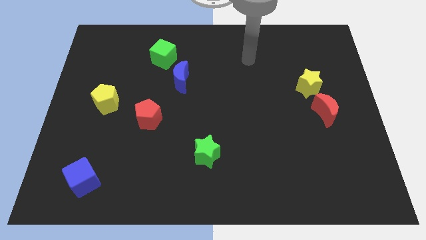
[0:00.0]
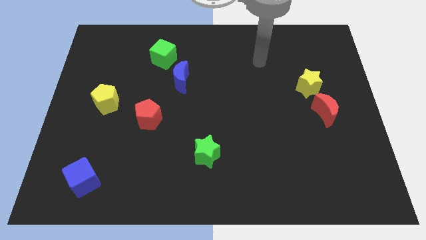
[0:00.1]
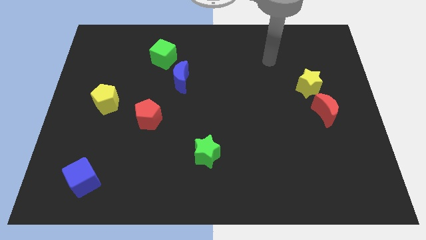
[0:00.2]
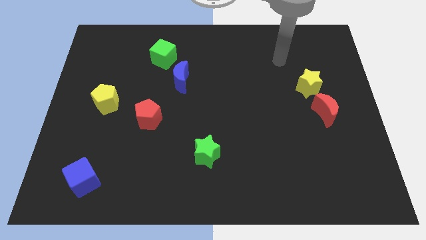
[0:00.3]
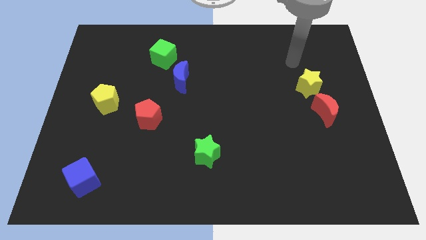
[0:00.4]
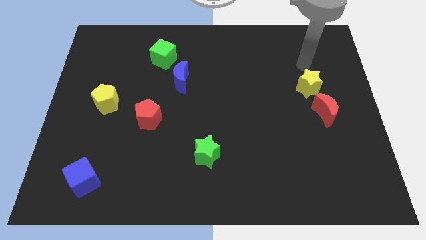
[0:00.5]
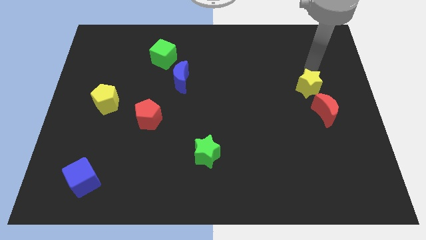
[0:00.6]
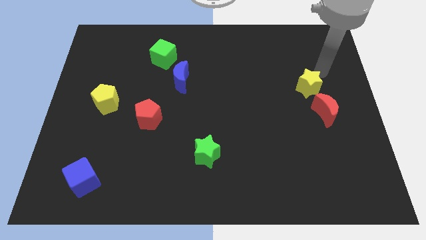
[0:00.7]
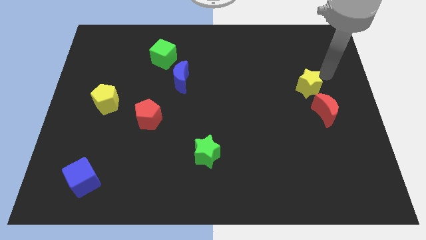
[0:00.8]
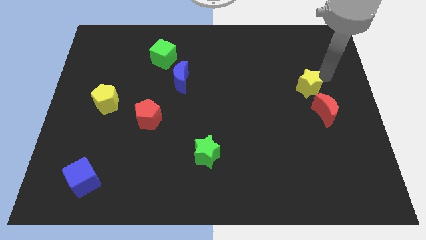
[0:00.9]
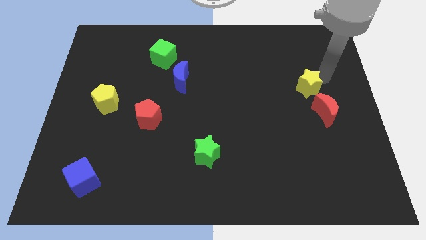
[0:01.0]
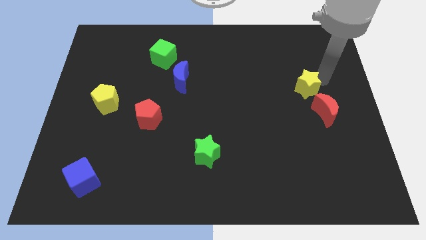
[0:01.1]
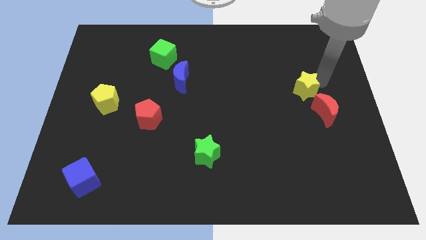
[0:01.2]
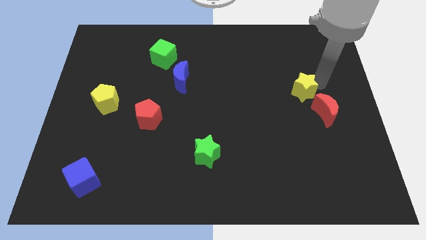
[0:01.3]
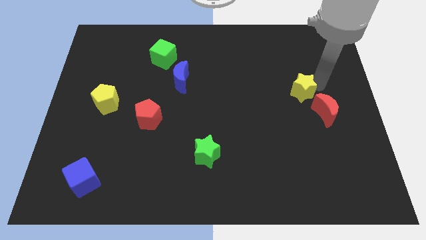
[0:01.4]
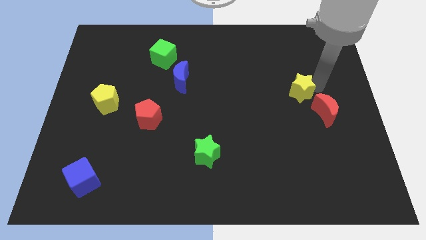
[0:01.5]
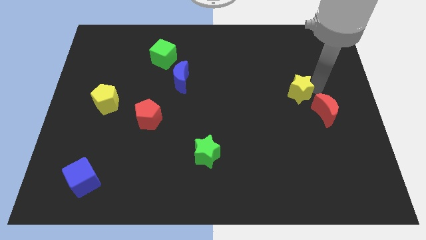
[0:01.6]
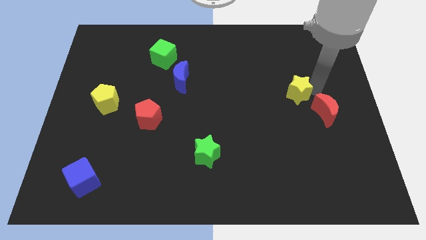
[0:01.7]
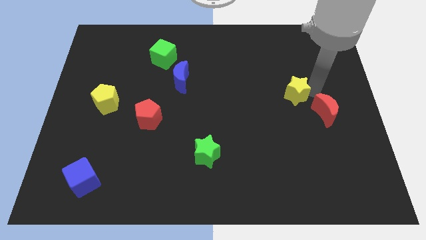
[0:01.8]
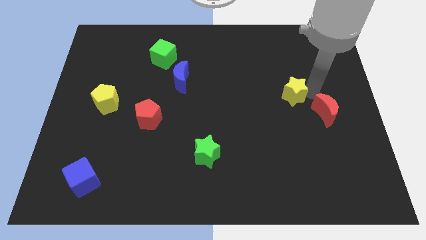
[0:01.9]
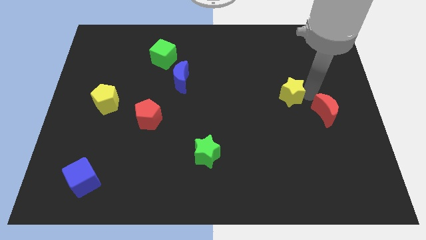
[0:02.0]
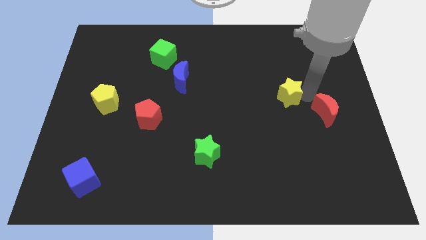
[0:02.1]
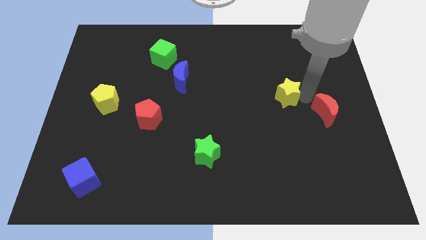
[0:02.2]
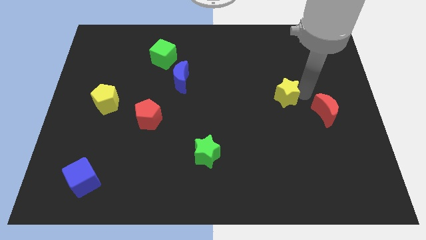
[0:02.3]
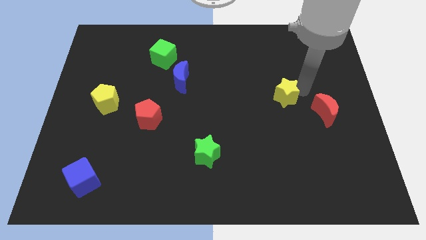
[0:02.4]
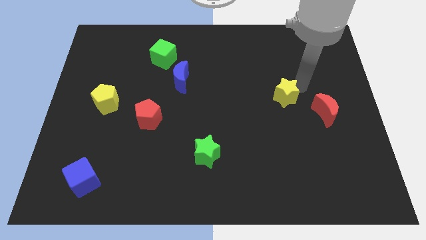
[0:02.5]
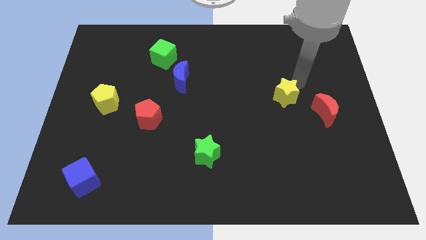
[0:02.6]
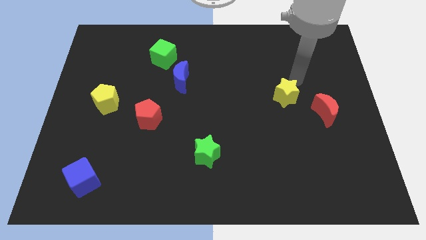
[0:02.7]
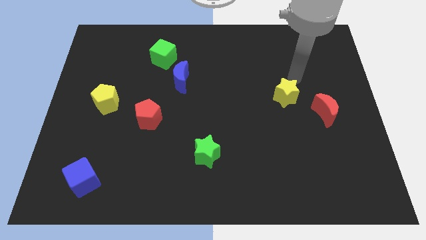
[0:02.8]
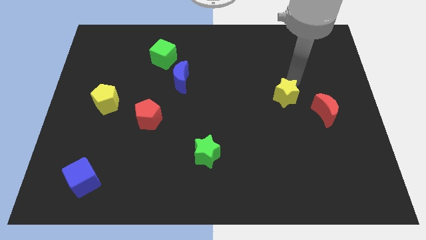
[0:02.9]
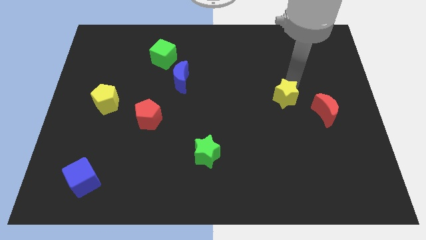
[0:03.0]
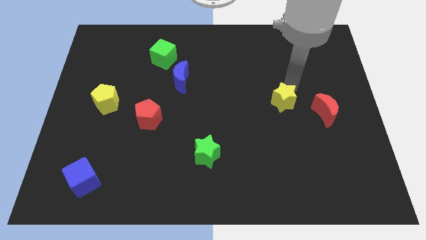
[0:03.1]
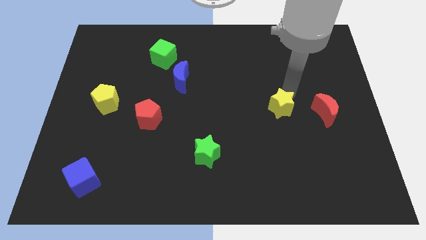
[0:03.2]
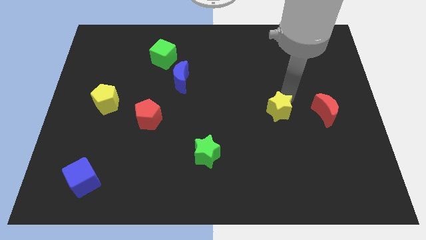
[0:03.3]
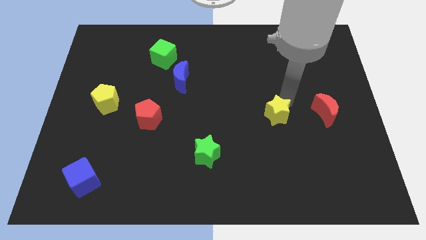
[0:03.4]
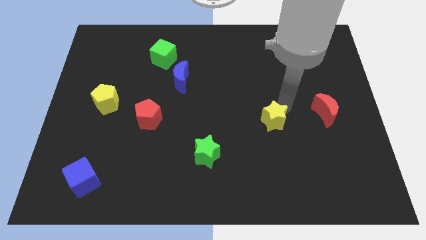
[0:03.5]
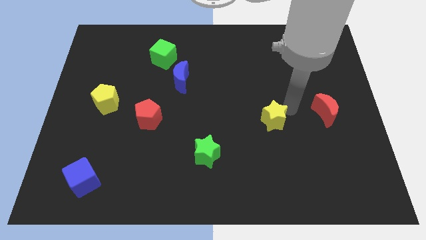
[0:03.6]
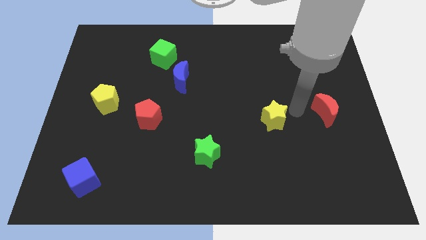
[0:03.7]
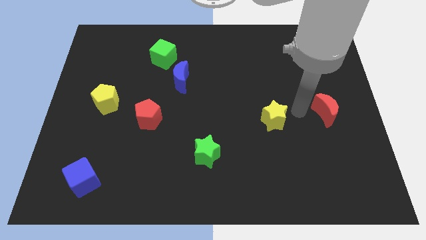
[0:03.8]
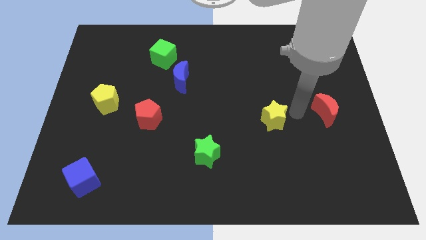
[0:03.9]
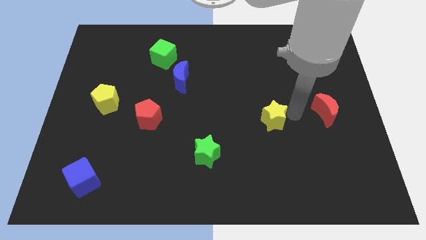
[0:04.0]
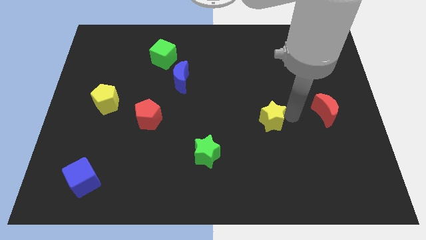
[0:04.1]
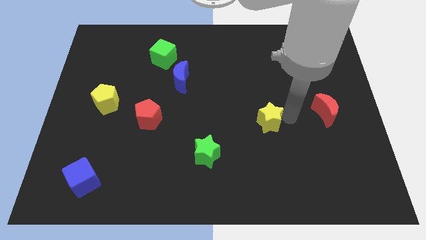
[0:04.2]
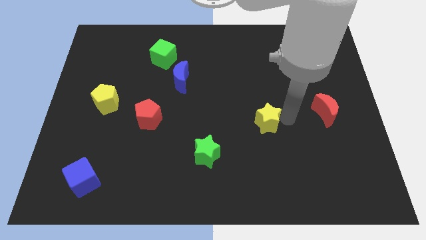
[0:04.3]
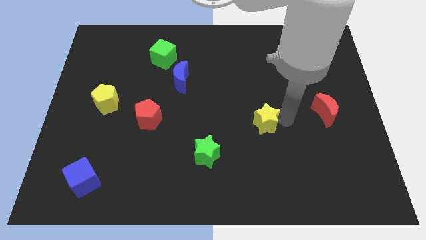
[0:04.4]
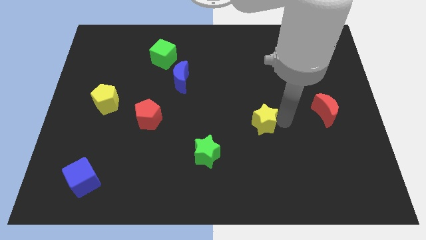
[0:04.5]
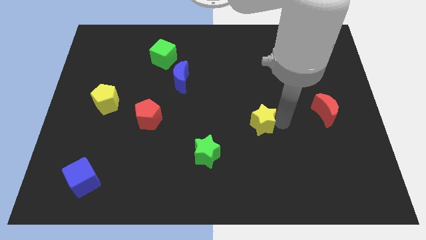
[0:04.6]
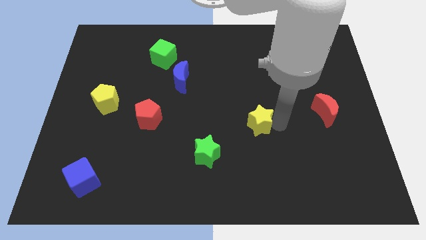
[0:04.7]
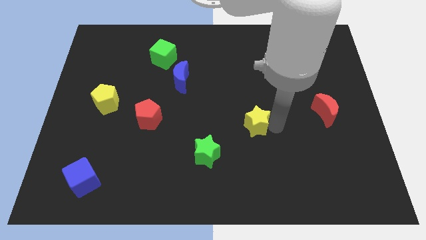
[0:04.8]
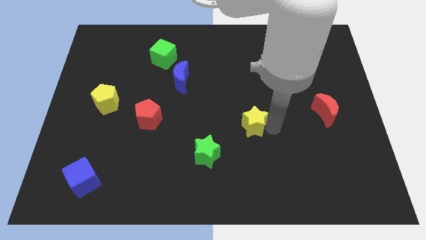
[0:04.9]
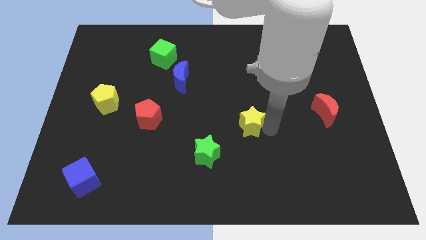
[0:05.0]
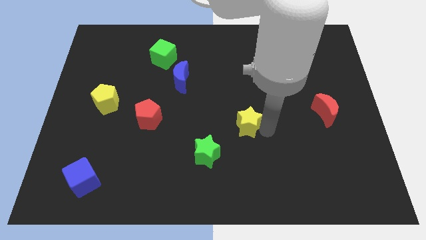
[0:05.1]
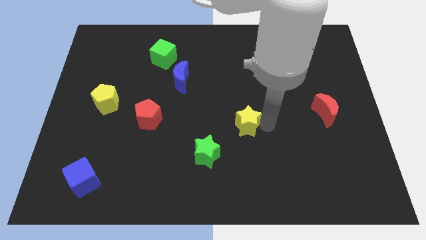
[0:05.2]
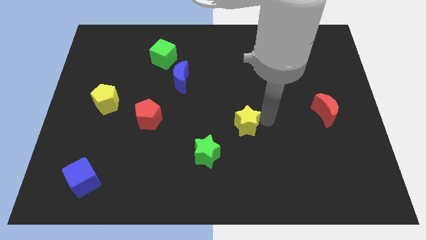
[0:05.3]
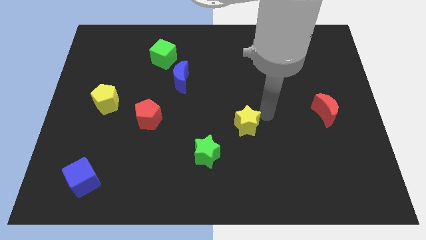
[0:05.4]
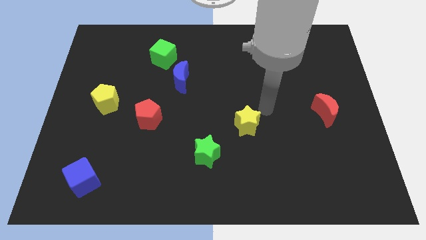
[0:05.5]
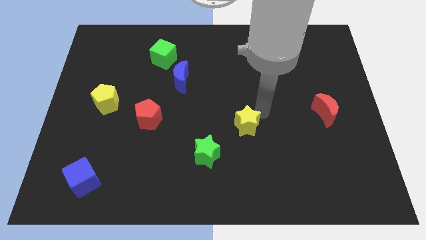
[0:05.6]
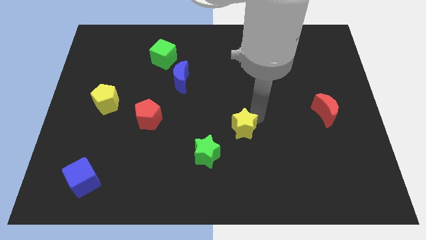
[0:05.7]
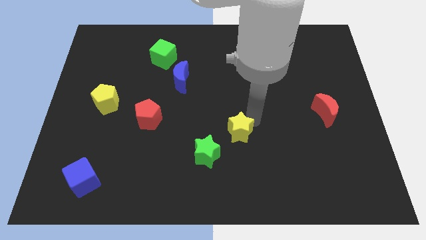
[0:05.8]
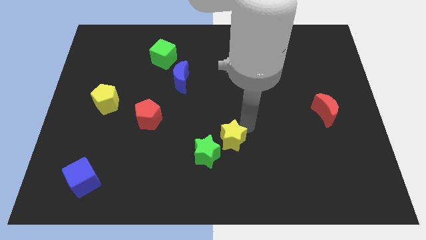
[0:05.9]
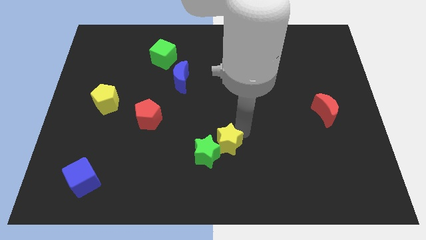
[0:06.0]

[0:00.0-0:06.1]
slide the yellow star close to the green star
